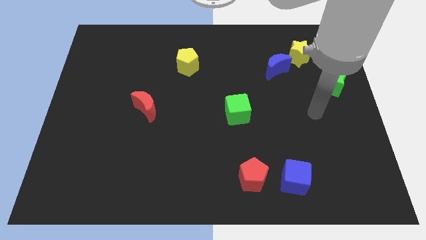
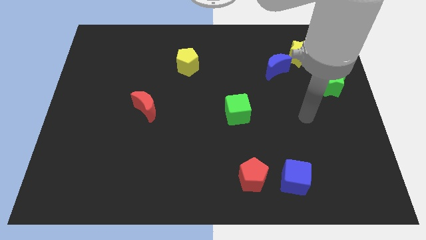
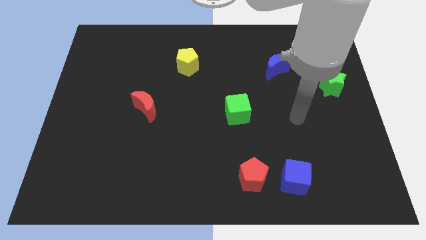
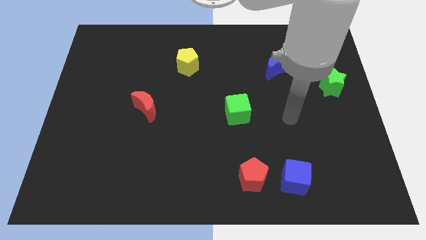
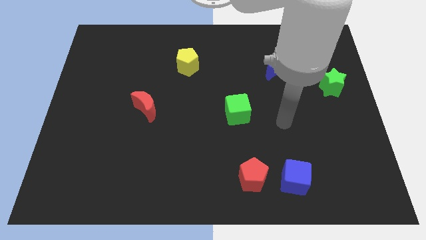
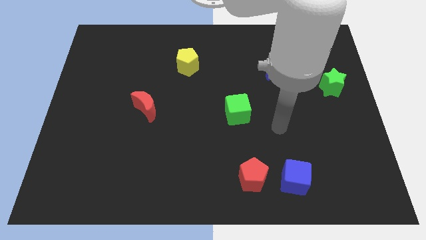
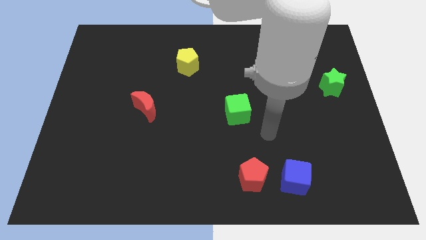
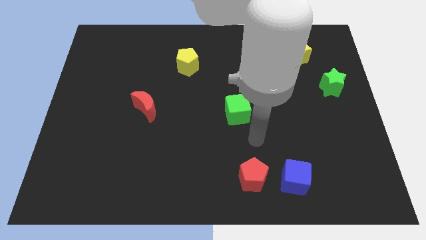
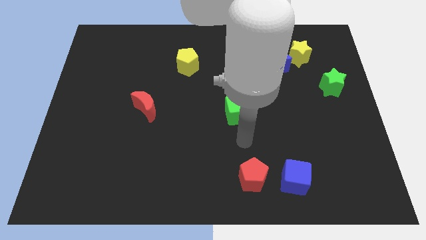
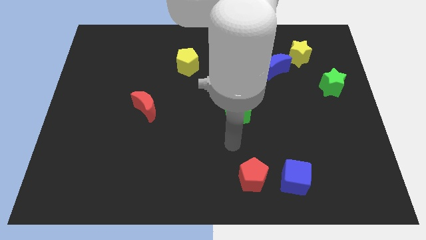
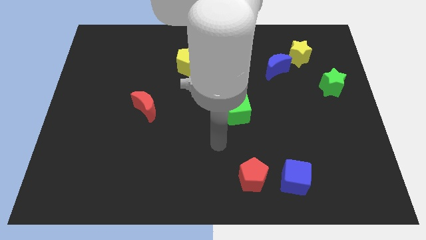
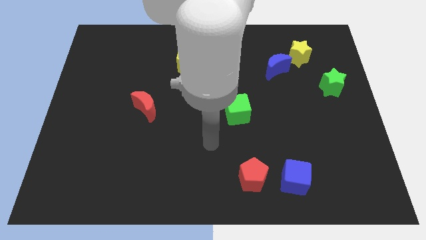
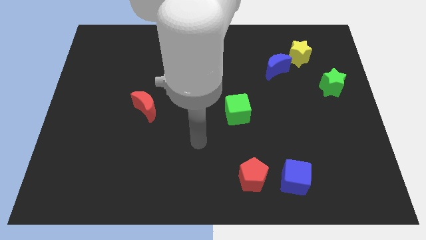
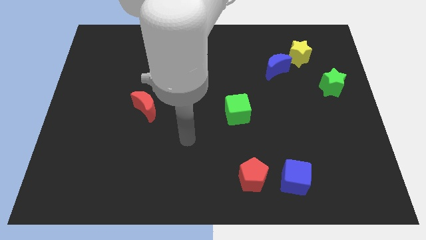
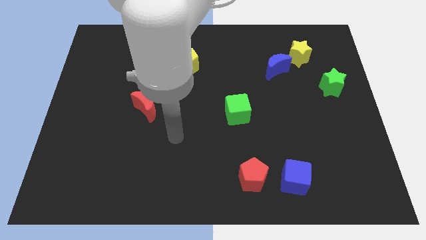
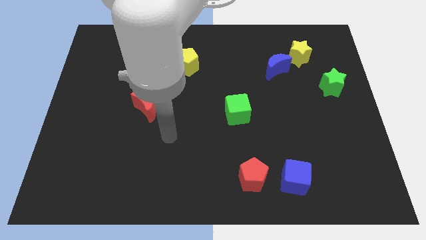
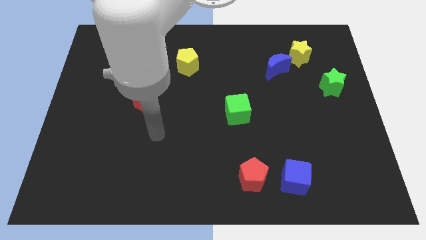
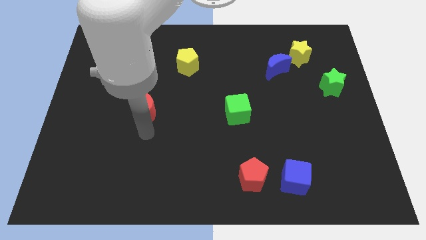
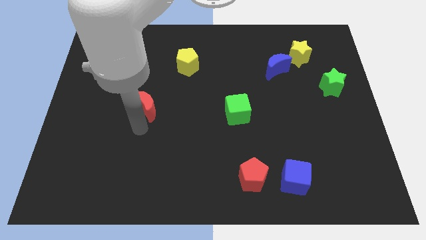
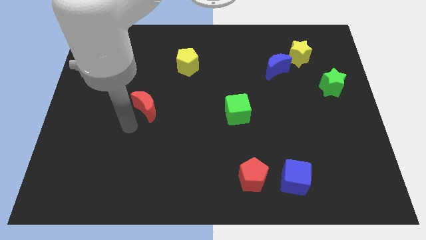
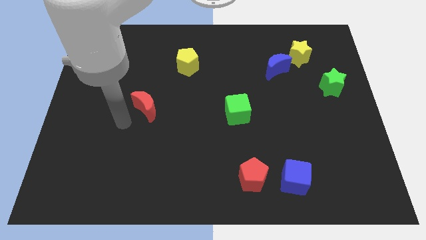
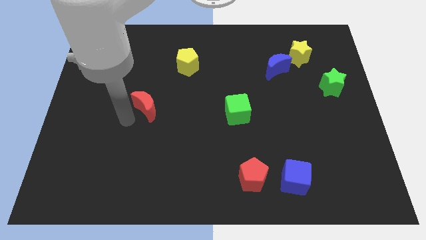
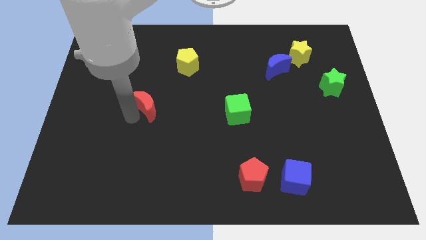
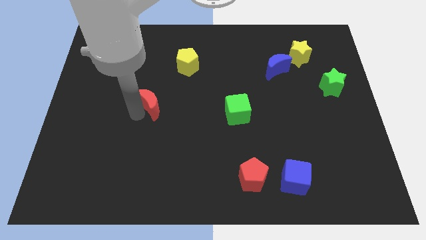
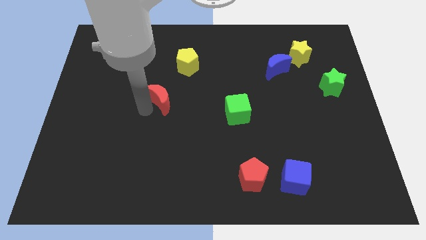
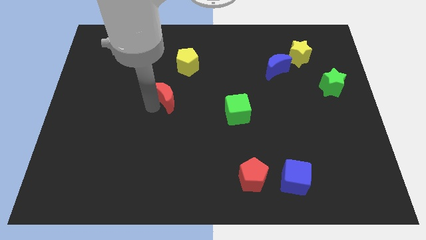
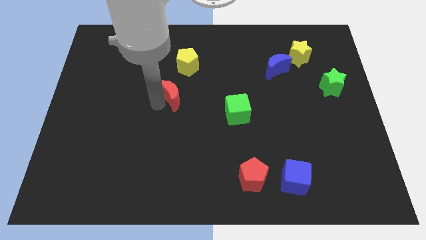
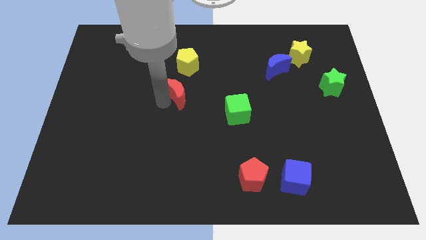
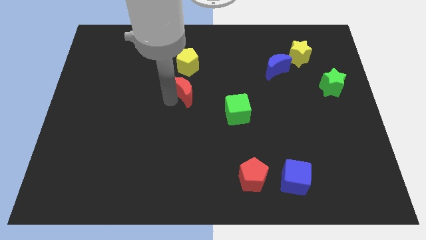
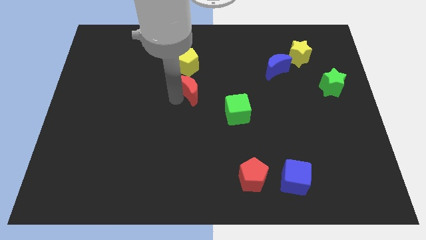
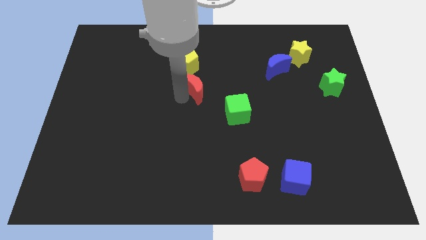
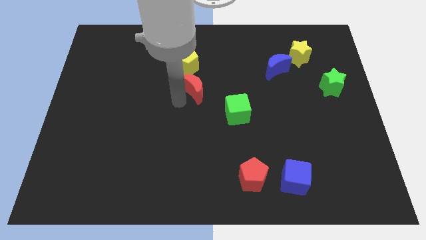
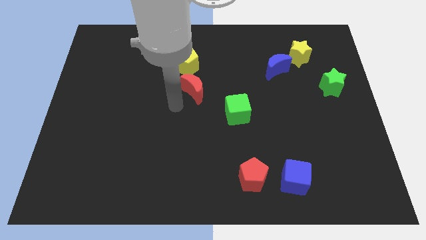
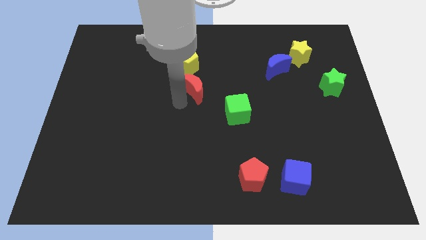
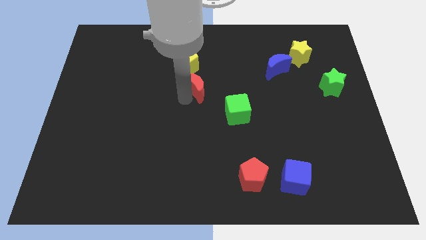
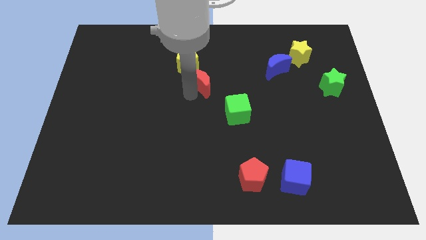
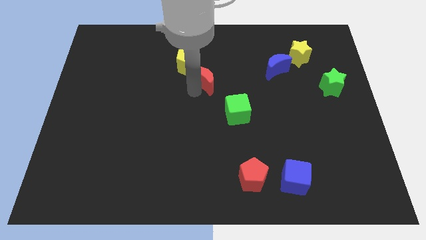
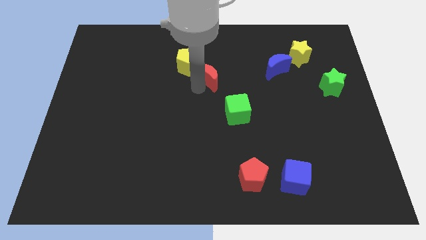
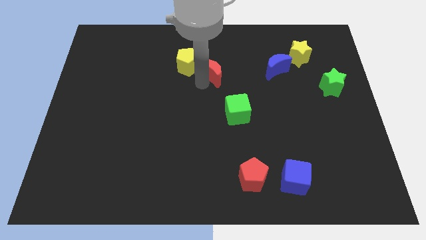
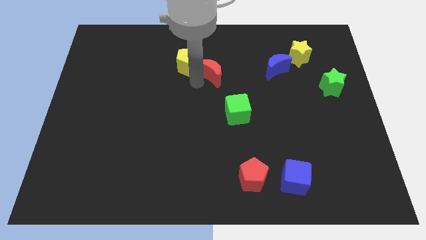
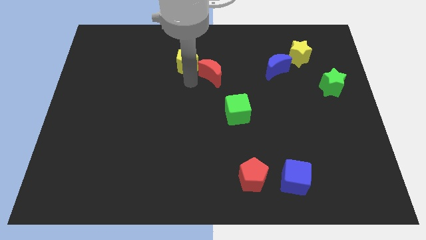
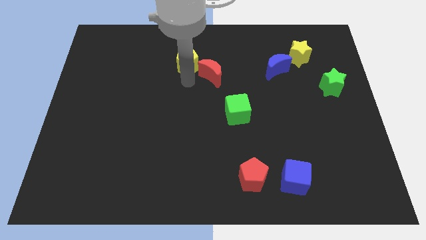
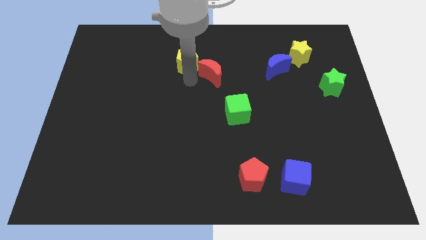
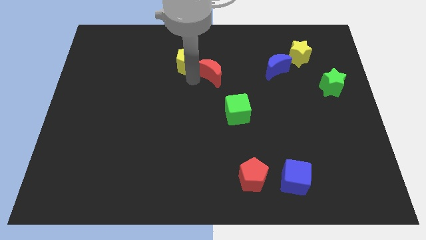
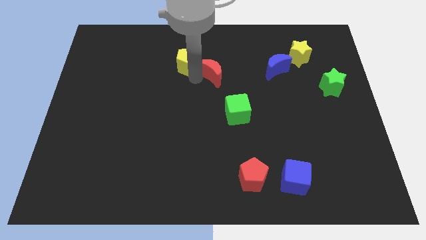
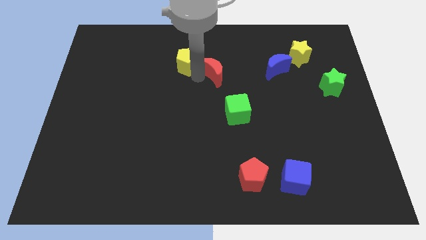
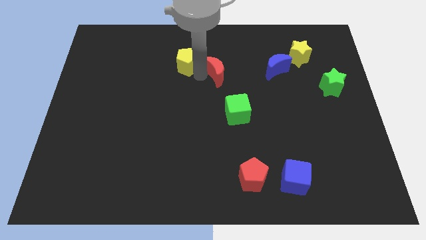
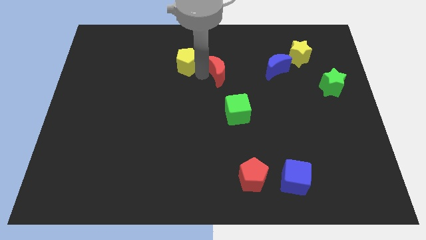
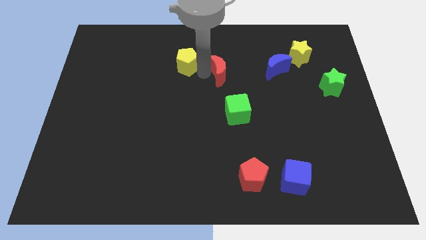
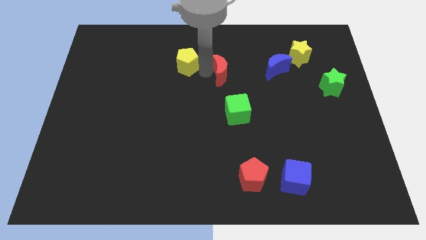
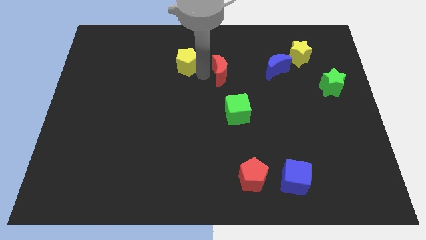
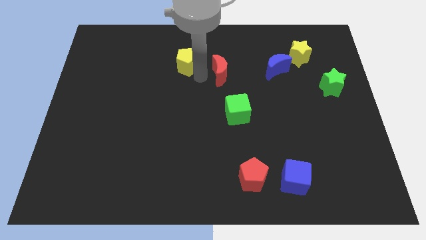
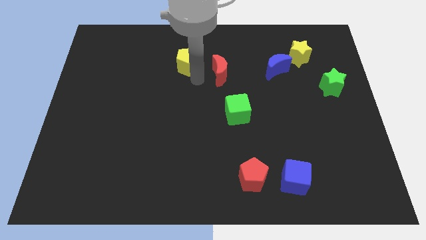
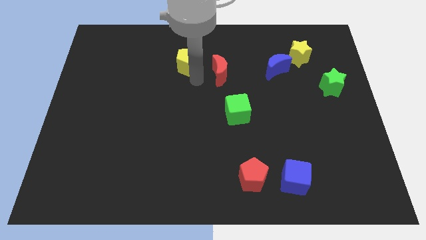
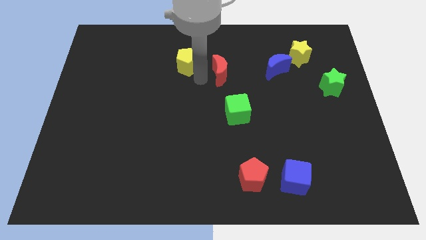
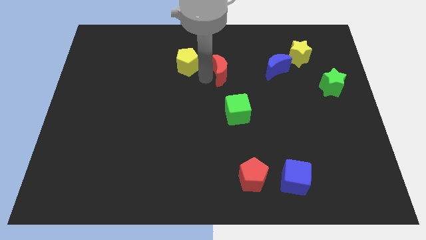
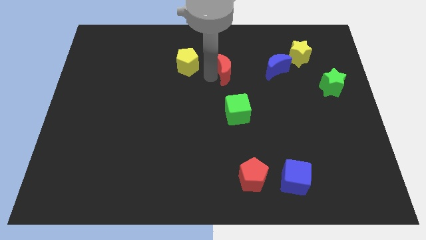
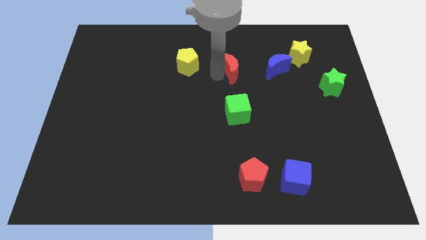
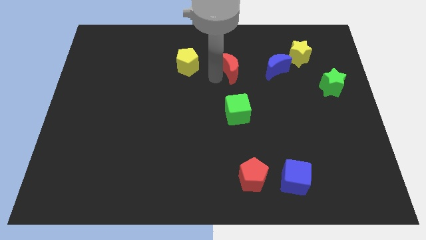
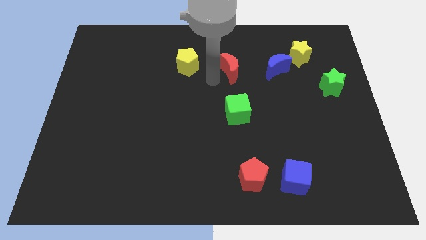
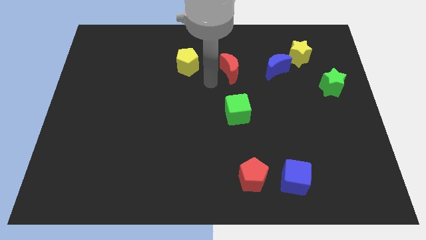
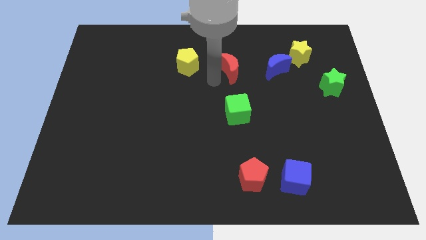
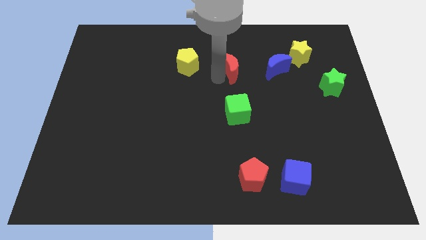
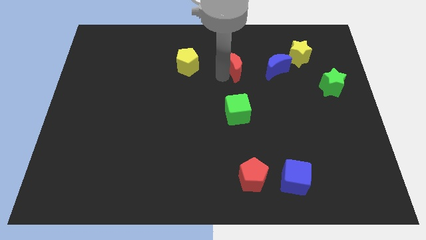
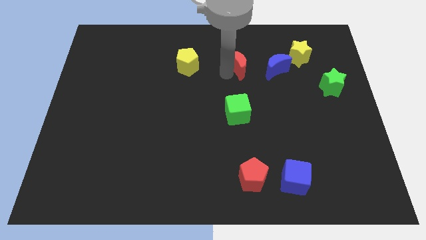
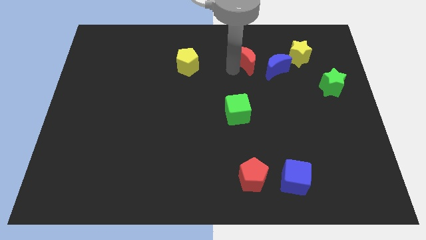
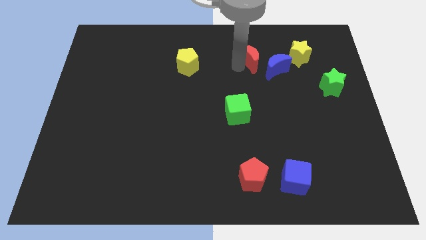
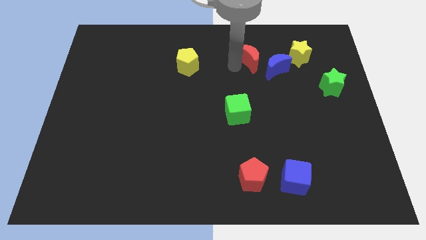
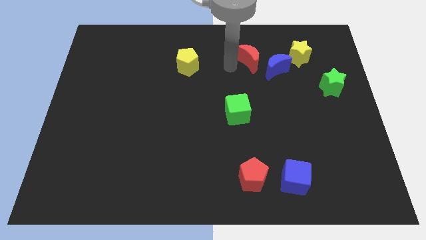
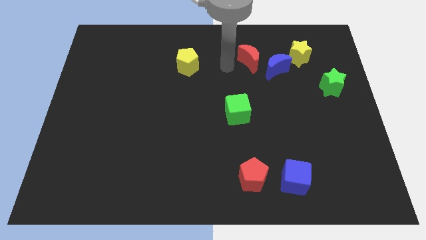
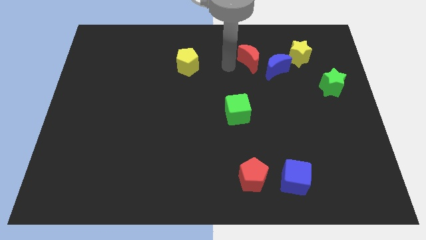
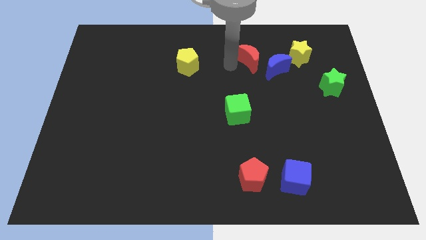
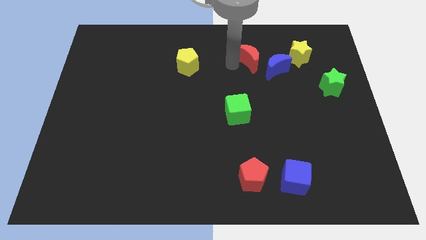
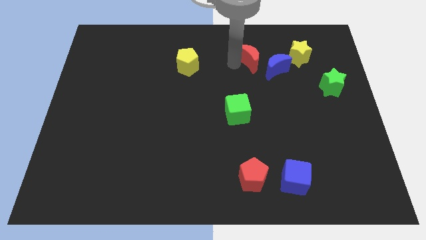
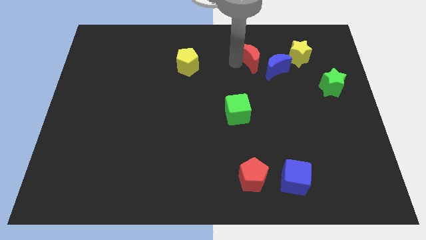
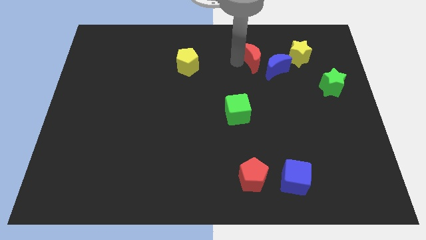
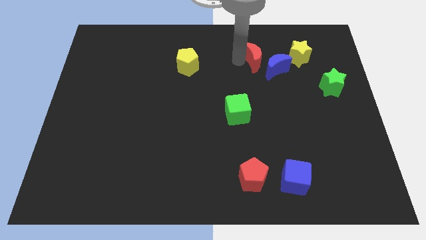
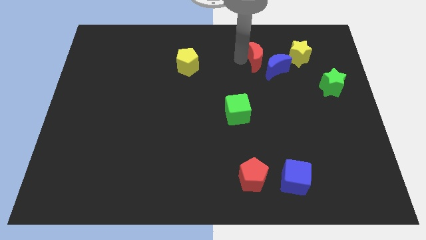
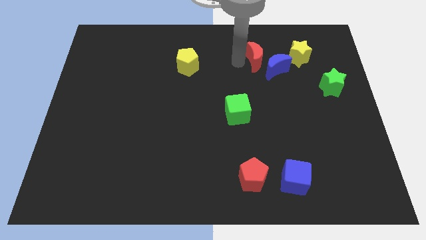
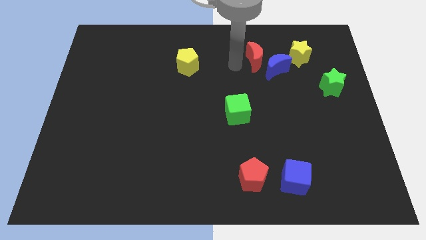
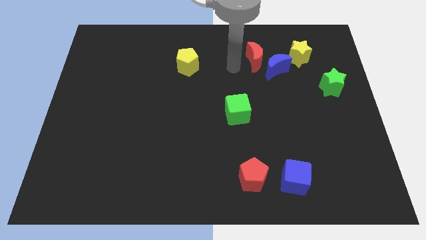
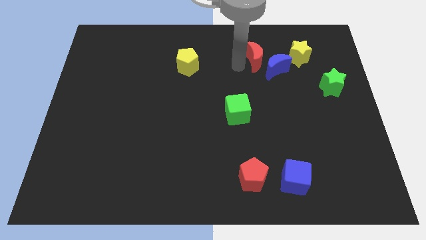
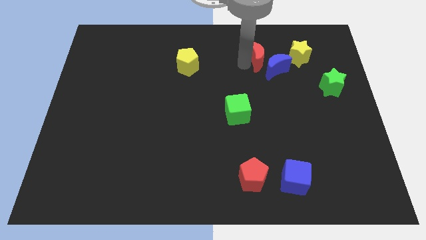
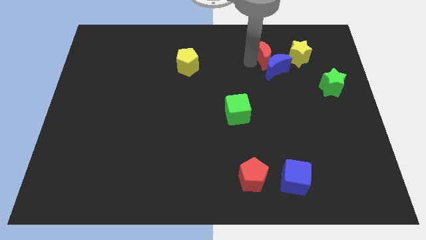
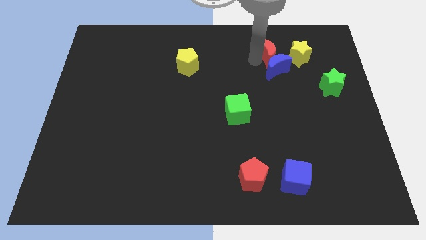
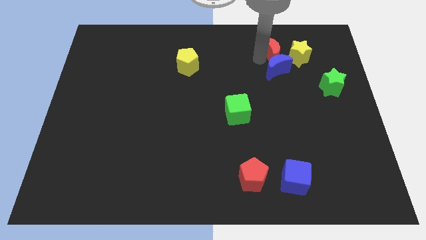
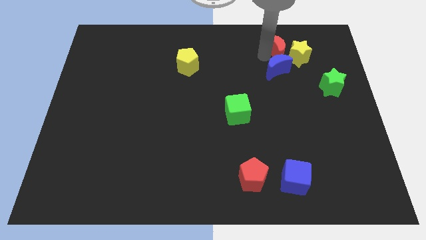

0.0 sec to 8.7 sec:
move the red moon close to the yellow star
